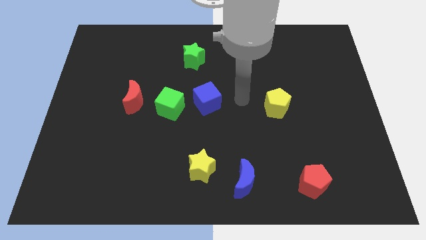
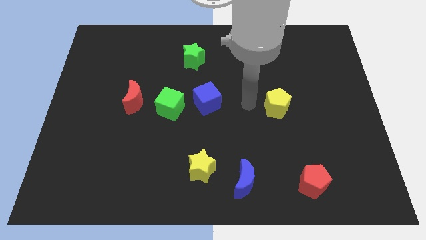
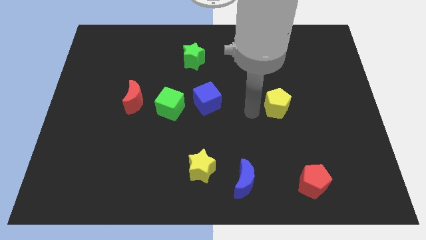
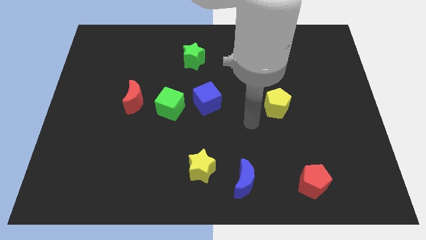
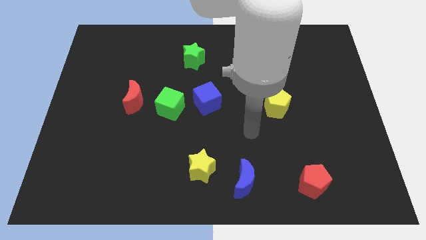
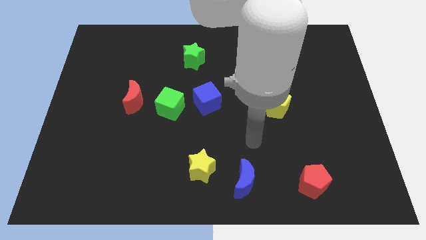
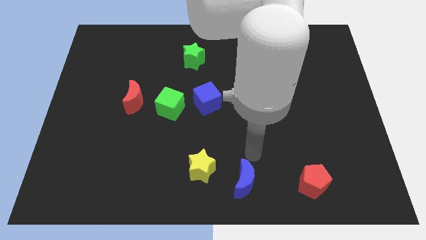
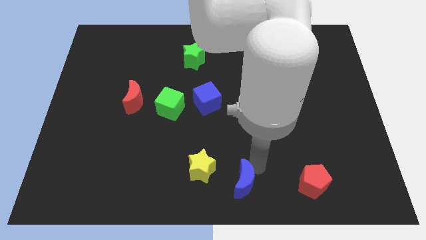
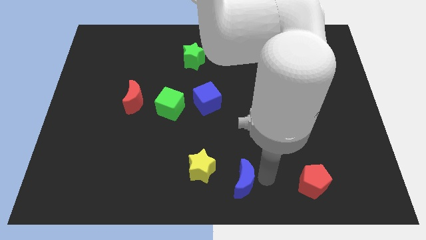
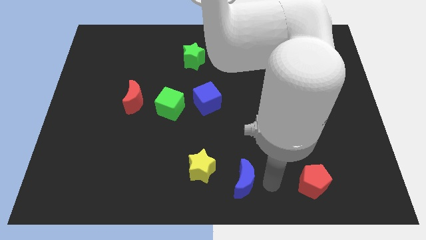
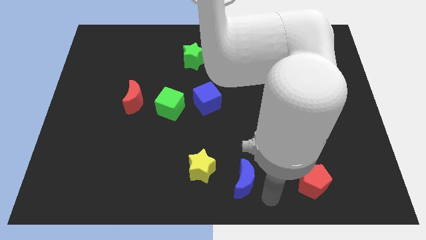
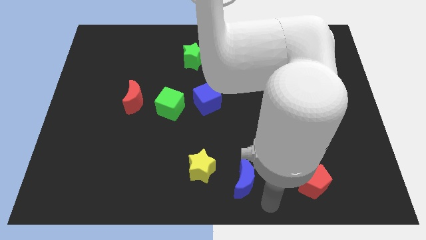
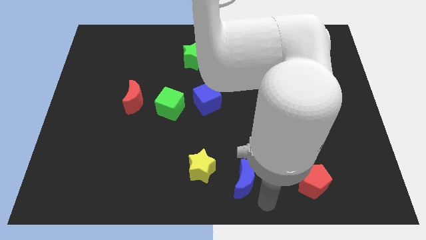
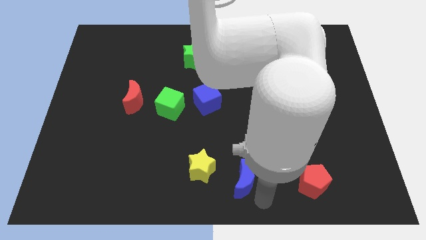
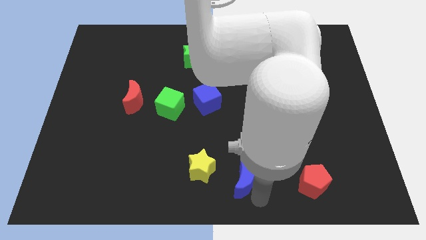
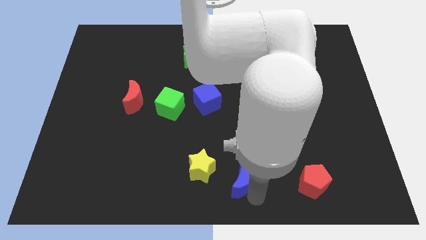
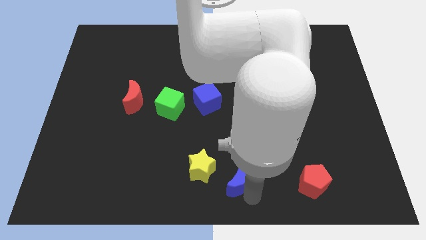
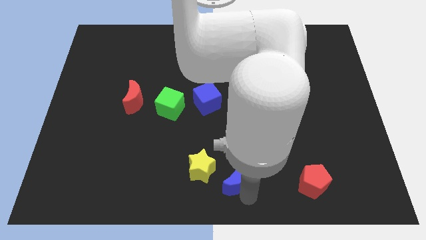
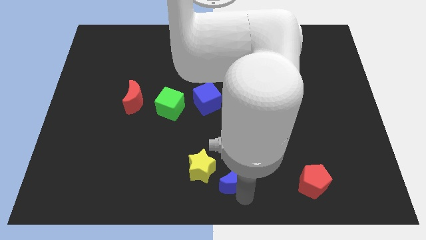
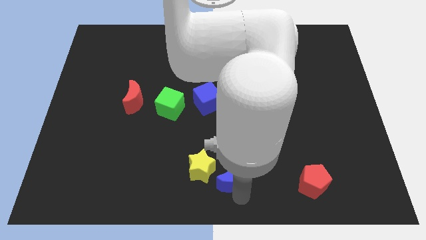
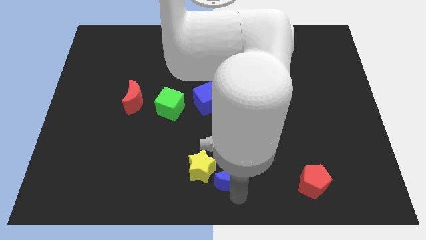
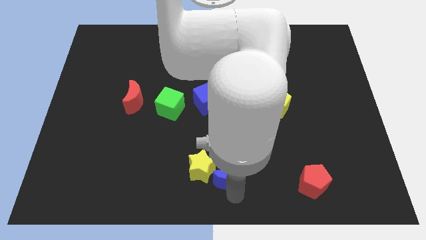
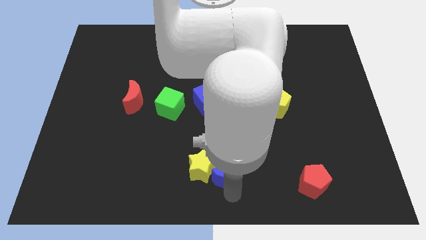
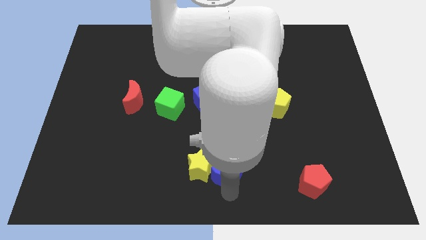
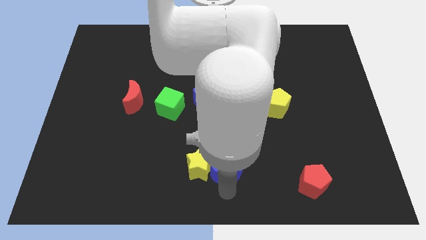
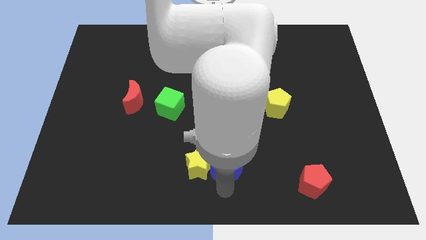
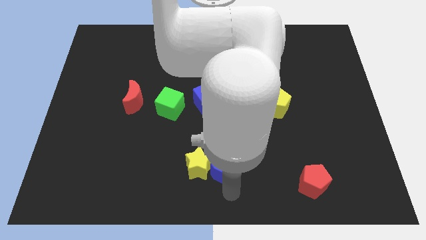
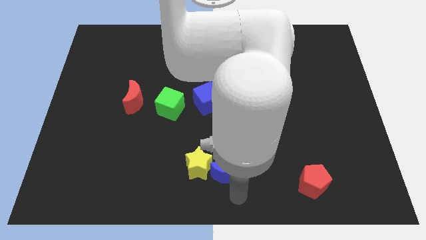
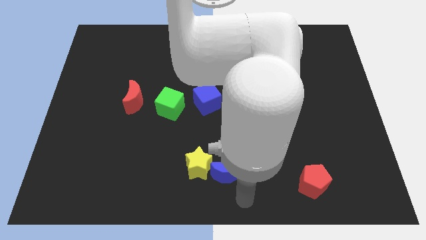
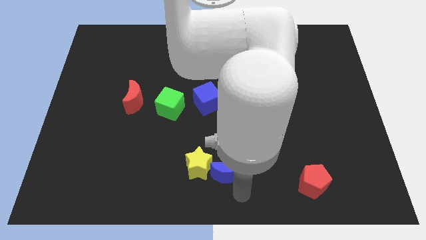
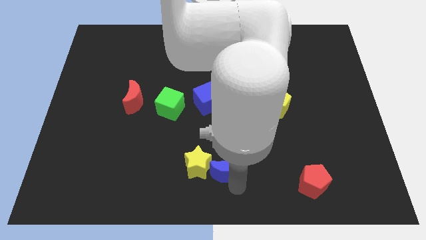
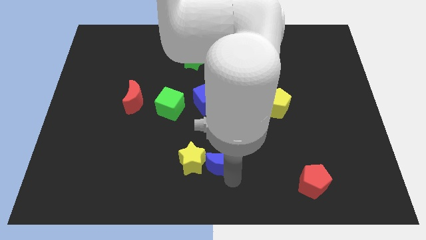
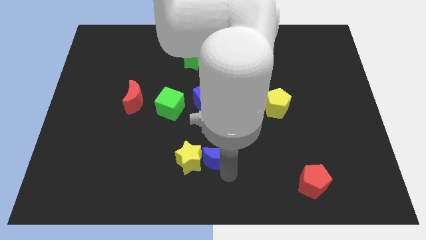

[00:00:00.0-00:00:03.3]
move the blue moon up and left slightly

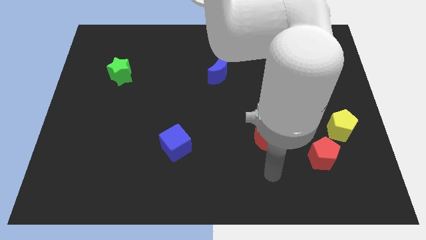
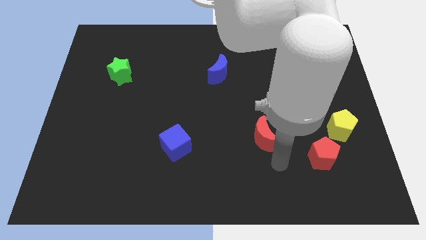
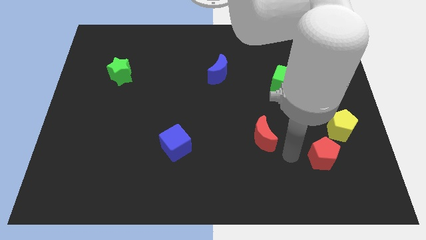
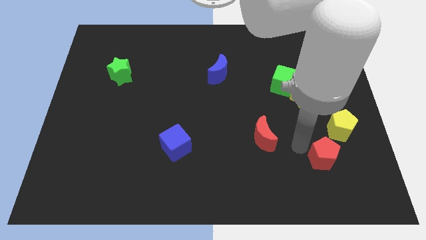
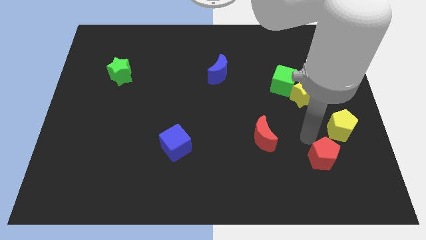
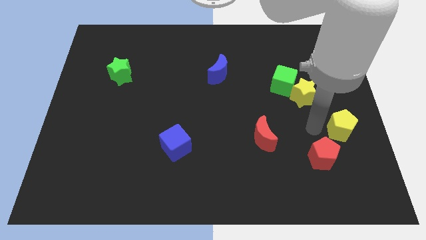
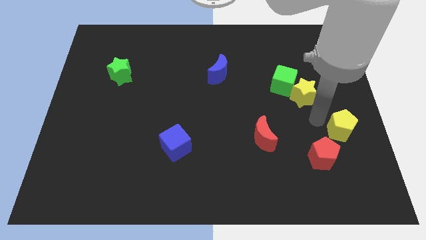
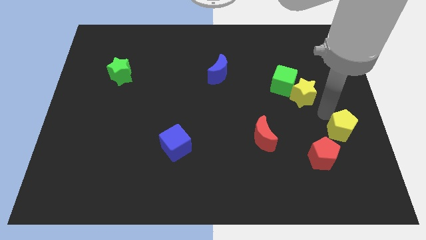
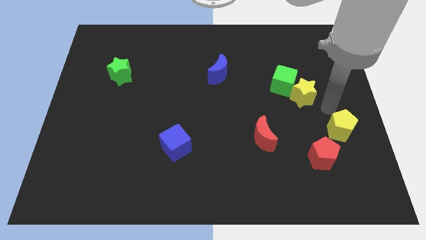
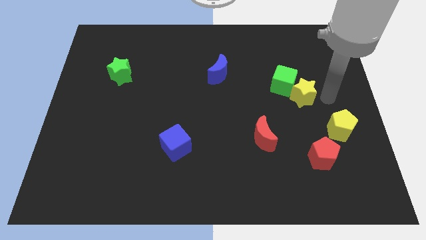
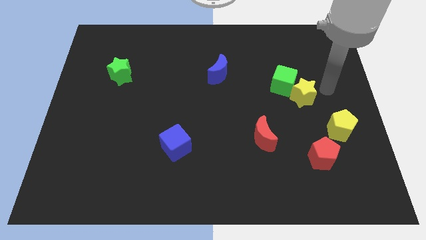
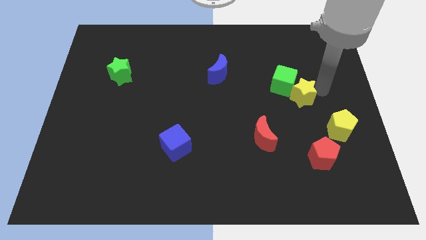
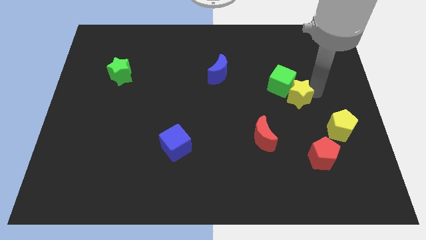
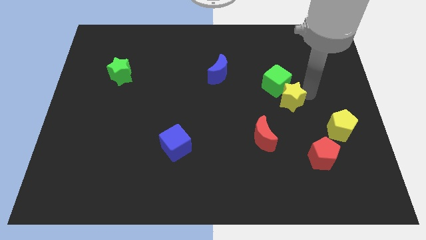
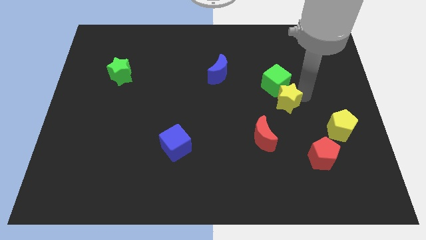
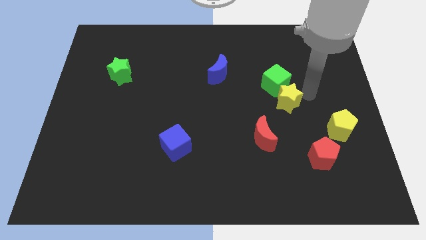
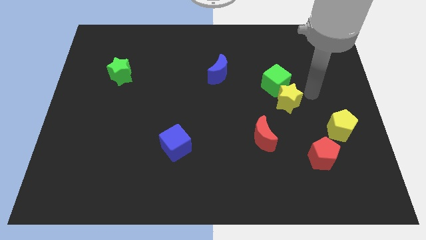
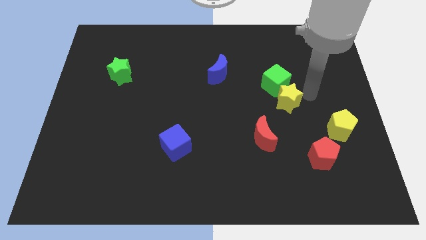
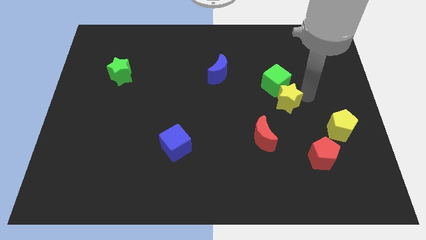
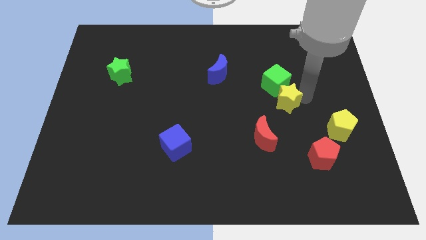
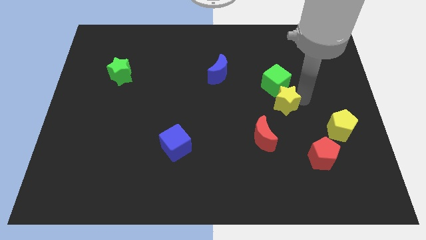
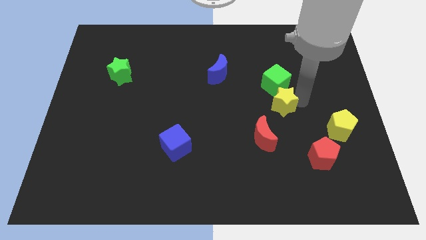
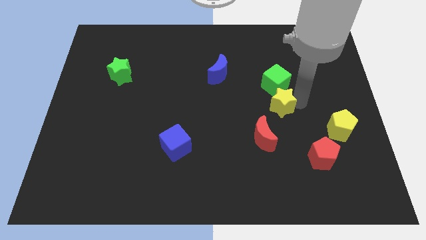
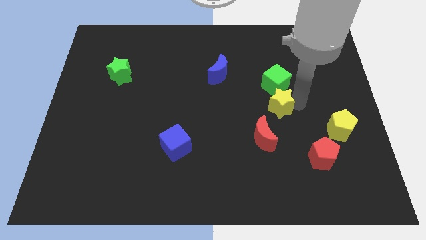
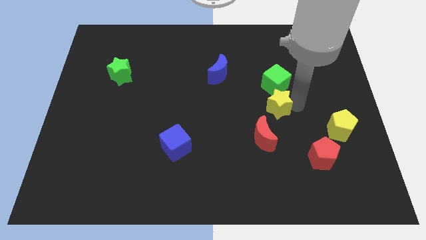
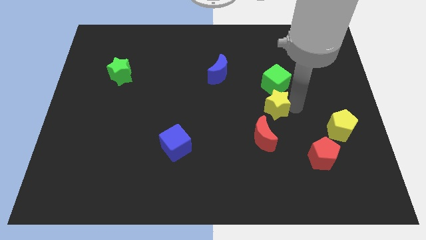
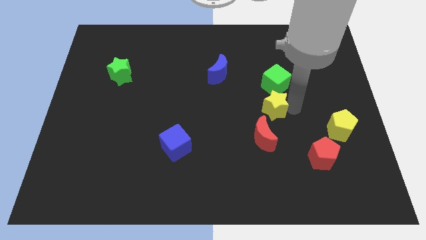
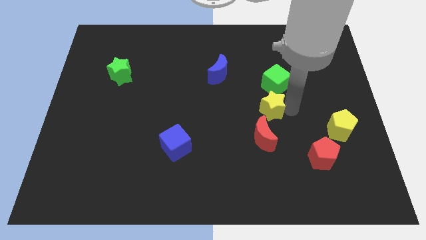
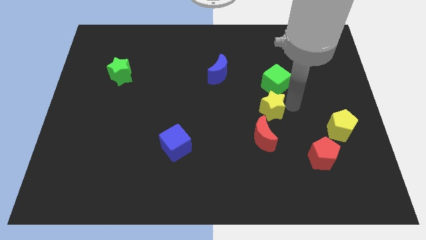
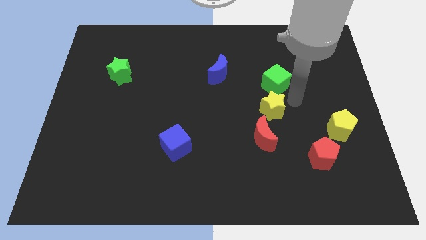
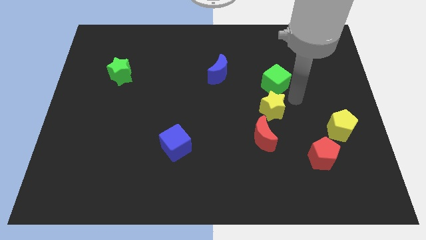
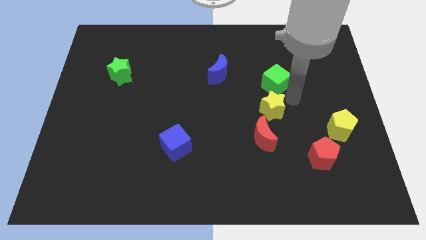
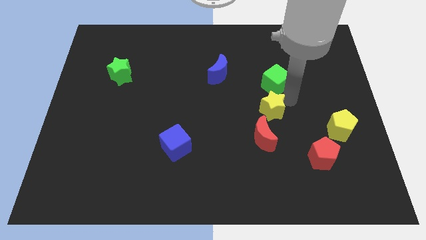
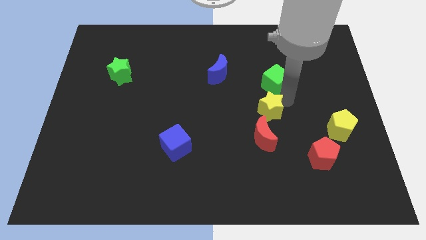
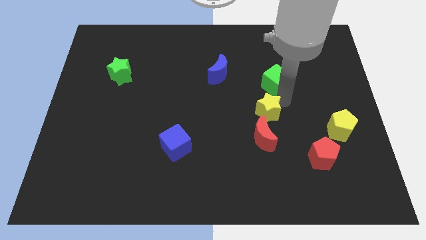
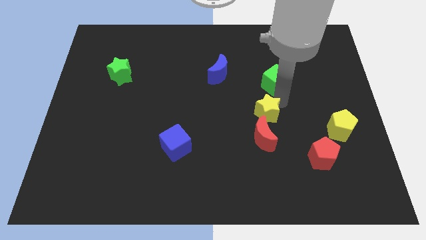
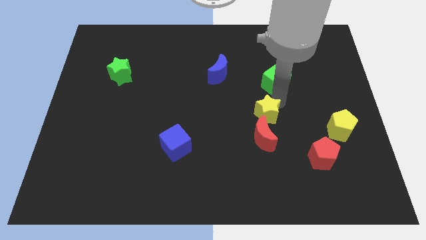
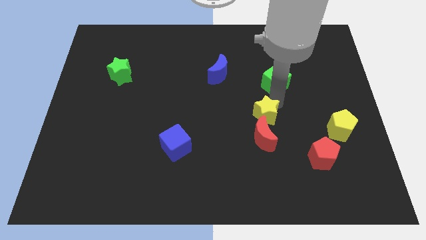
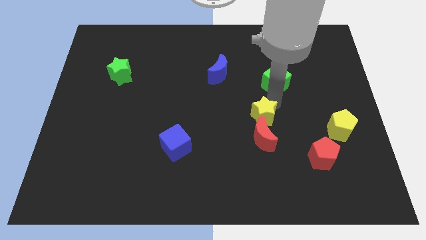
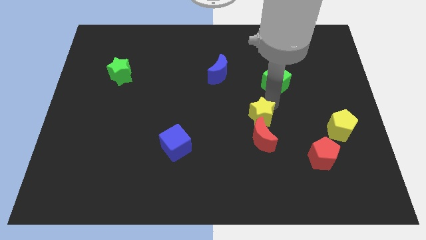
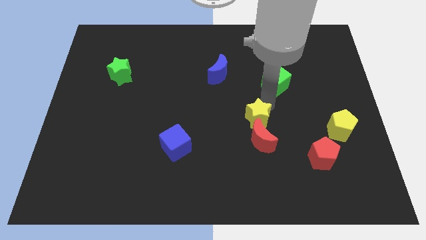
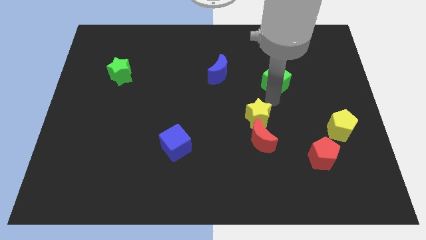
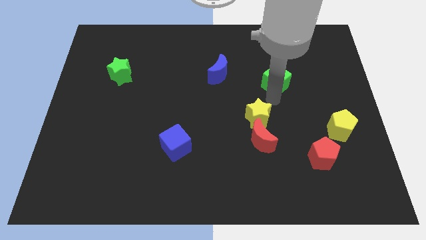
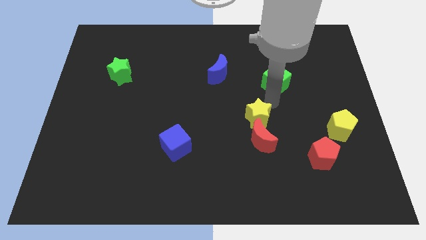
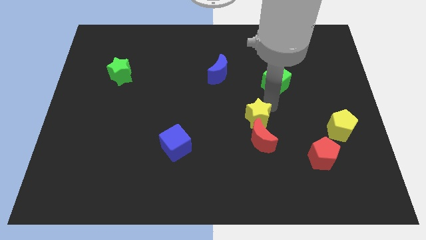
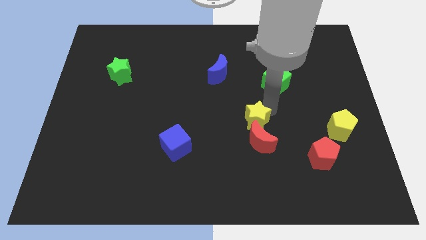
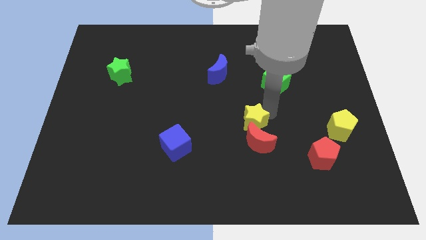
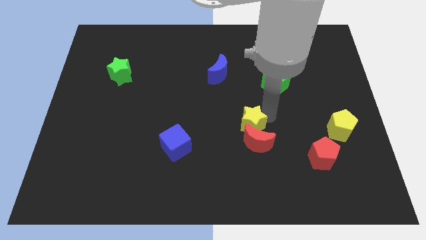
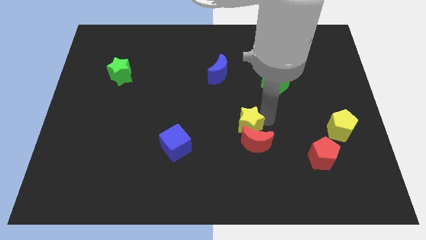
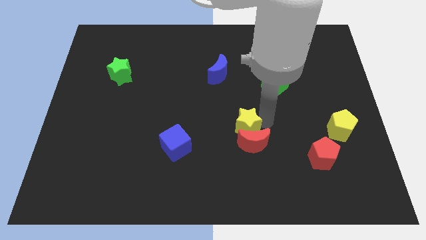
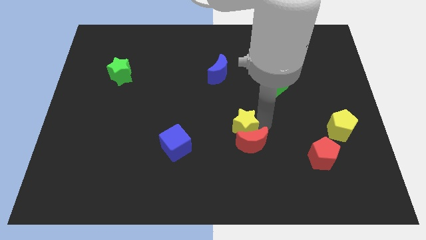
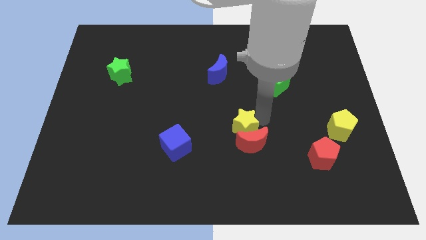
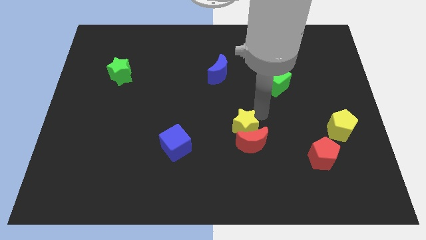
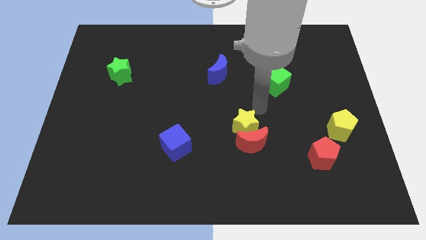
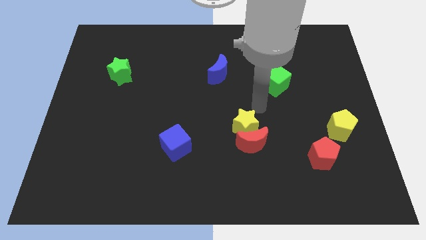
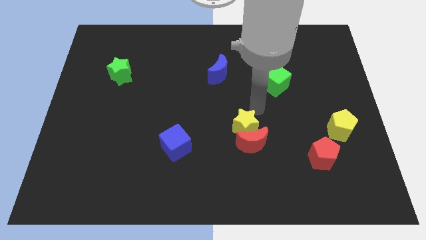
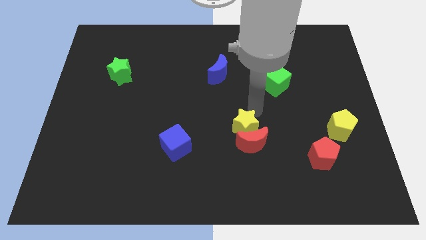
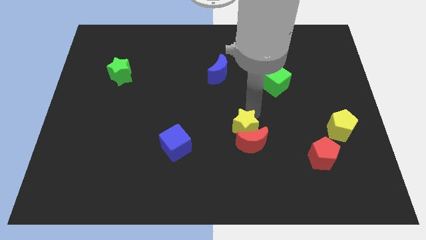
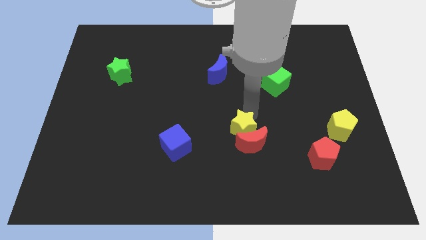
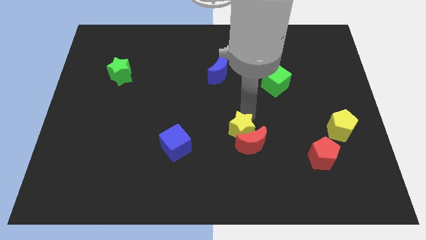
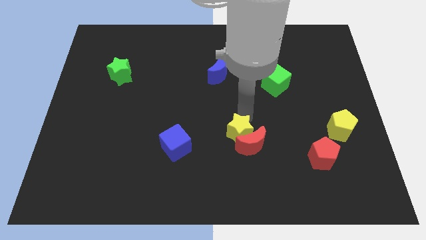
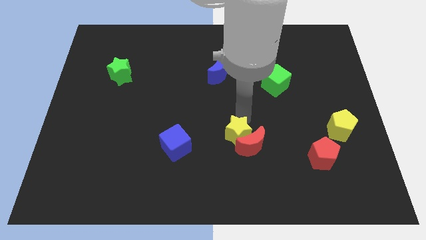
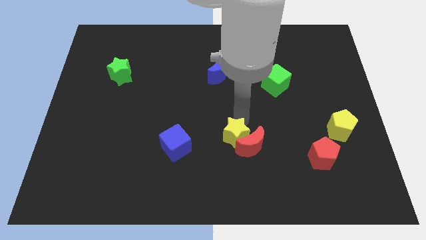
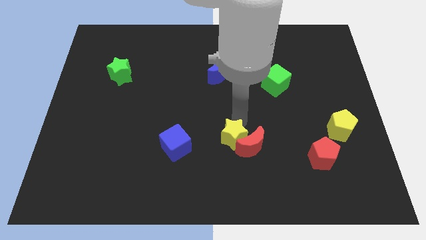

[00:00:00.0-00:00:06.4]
push the yellow star downwards and left diagonally
